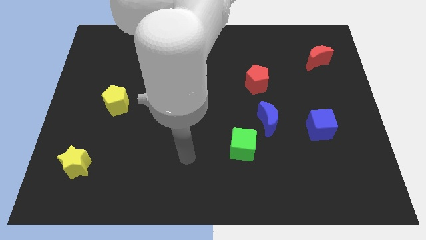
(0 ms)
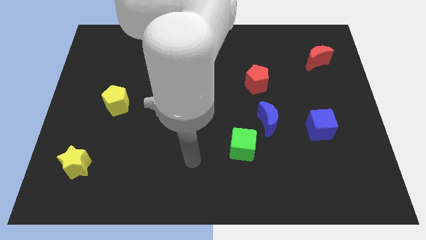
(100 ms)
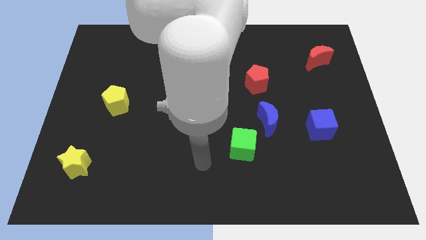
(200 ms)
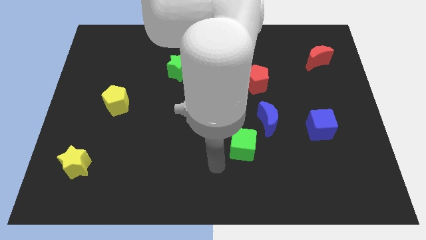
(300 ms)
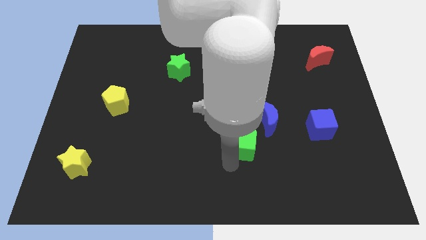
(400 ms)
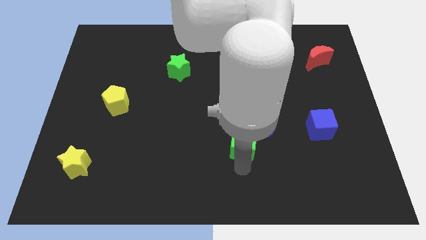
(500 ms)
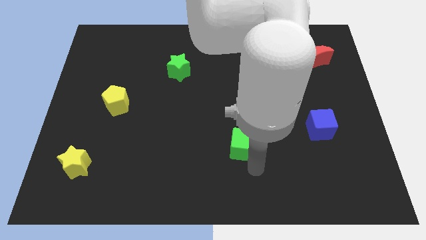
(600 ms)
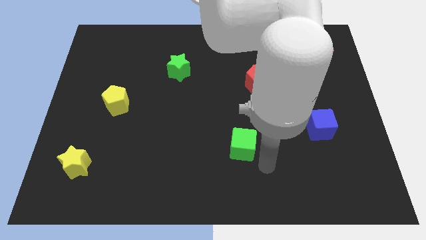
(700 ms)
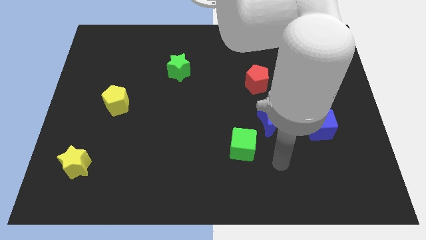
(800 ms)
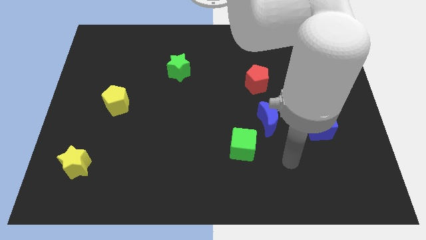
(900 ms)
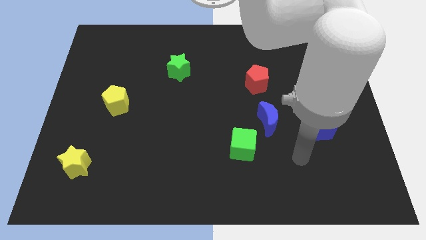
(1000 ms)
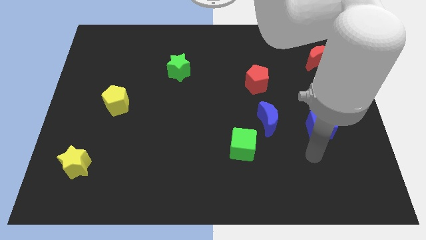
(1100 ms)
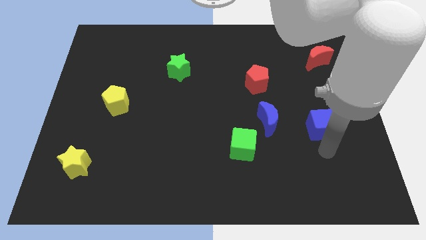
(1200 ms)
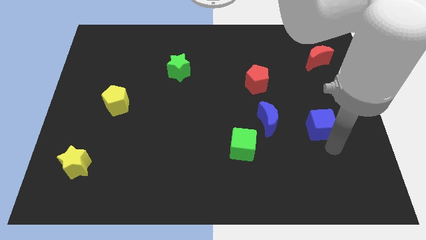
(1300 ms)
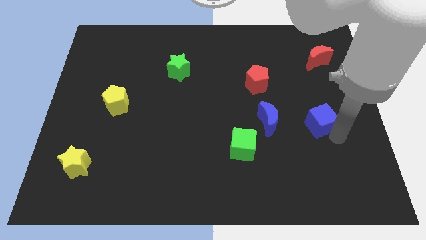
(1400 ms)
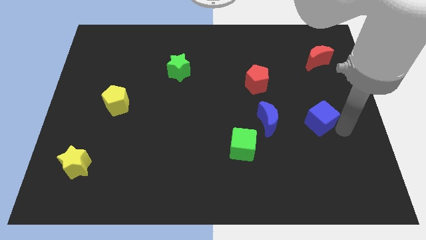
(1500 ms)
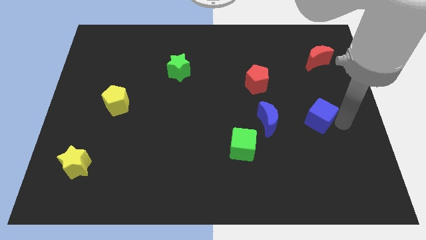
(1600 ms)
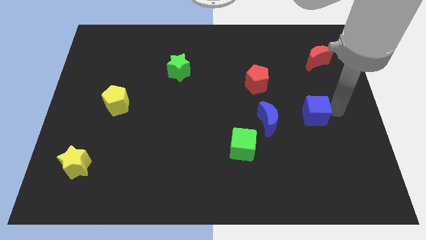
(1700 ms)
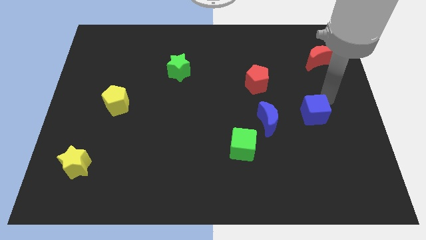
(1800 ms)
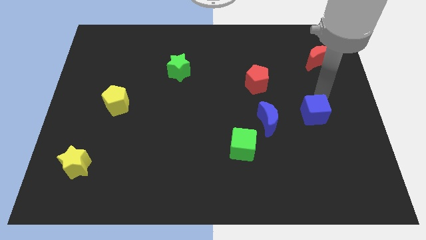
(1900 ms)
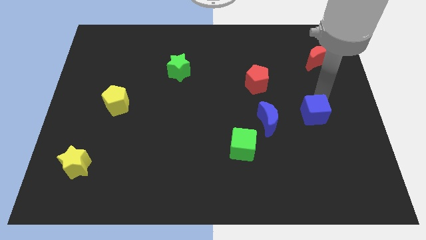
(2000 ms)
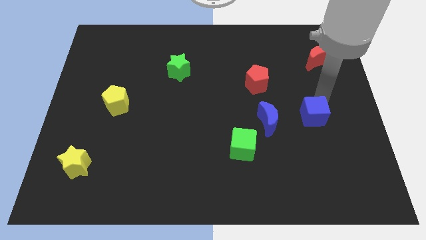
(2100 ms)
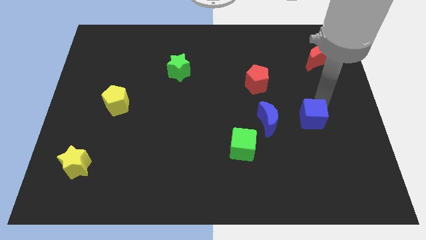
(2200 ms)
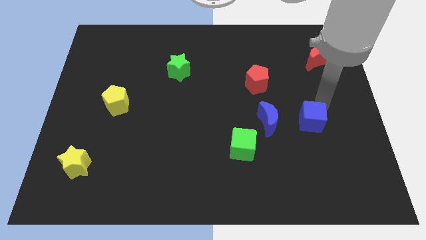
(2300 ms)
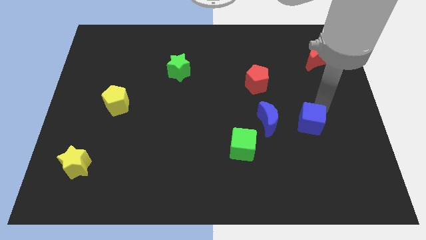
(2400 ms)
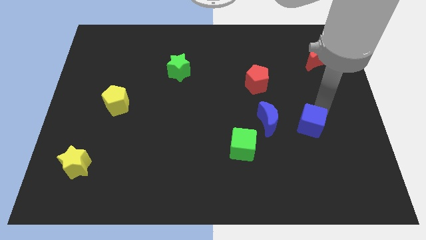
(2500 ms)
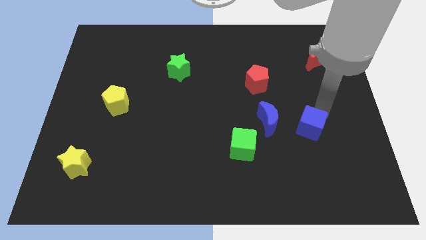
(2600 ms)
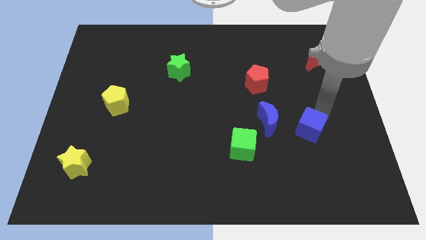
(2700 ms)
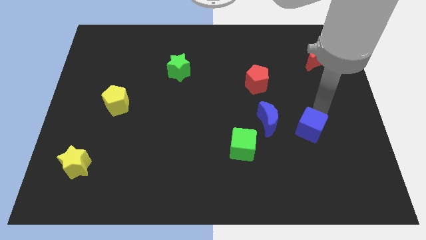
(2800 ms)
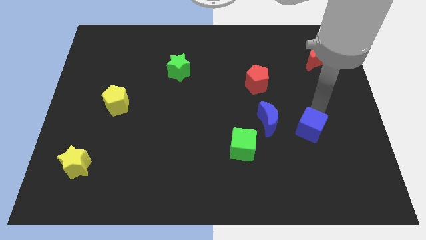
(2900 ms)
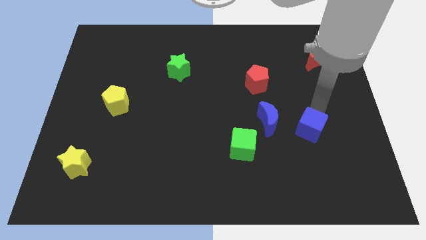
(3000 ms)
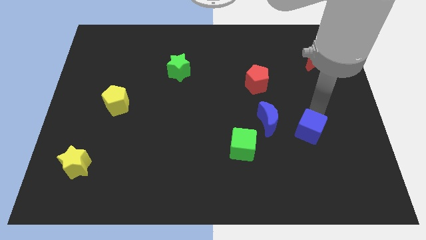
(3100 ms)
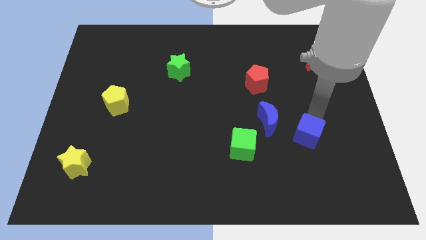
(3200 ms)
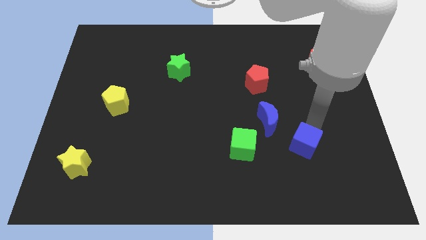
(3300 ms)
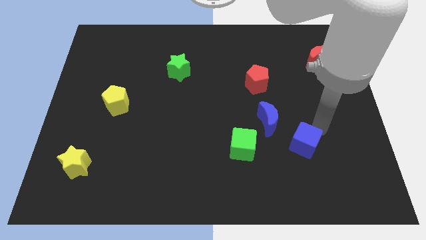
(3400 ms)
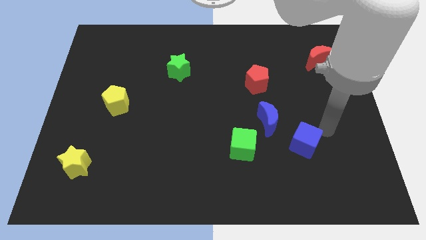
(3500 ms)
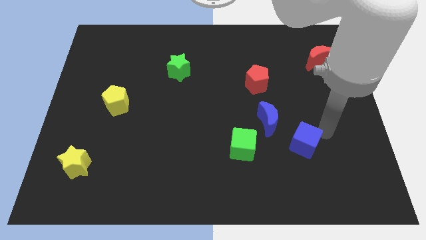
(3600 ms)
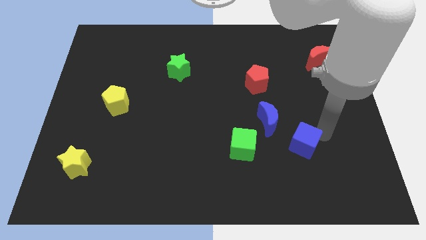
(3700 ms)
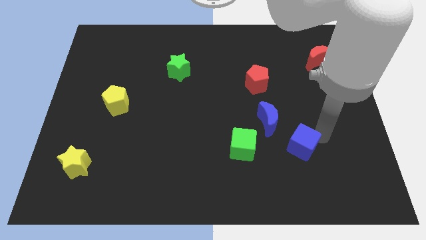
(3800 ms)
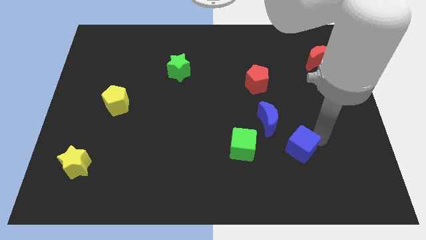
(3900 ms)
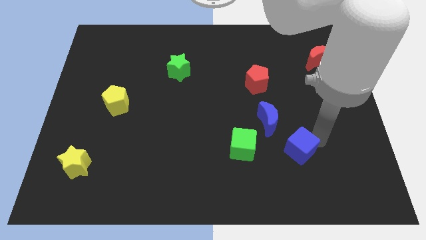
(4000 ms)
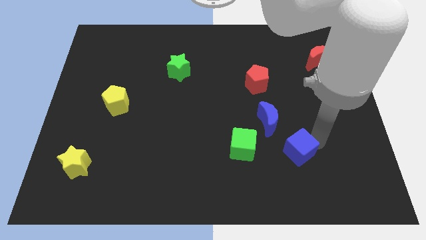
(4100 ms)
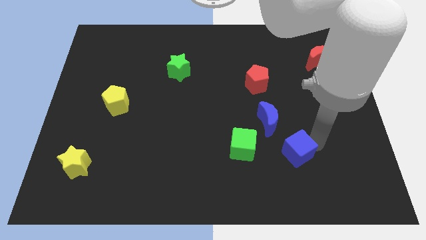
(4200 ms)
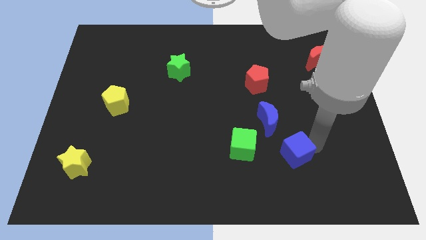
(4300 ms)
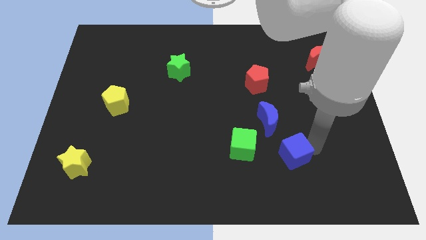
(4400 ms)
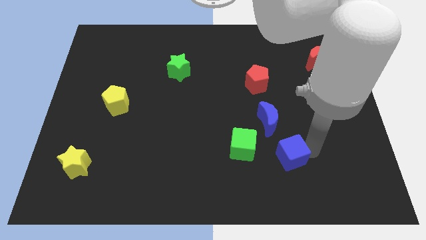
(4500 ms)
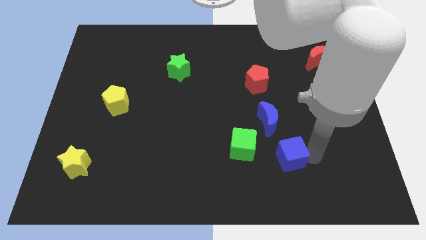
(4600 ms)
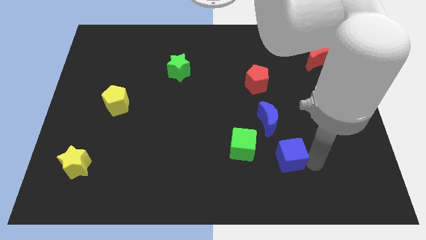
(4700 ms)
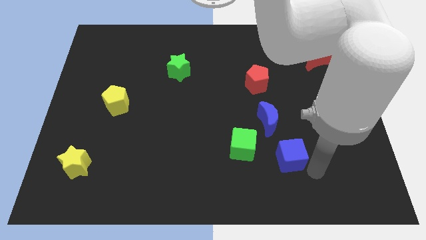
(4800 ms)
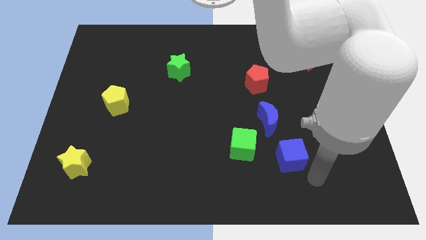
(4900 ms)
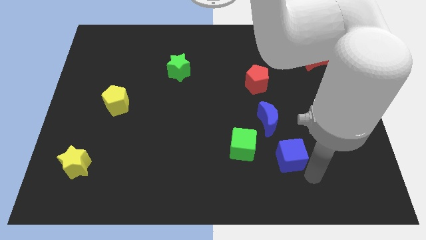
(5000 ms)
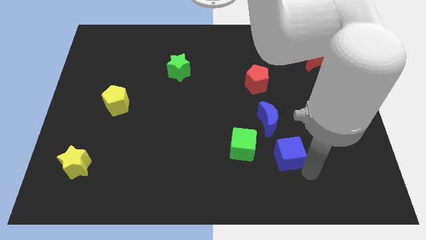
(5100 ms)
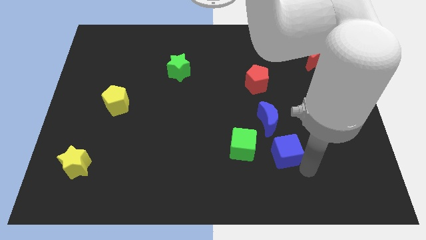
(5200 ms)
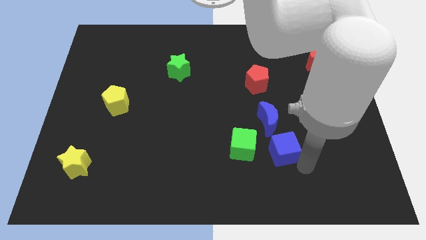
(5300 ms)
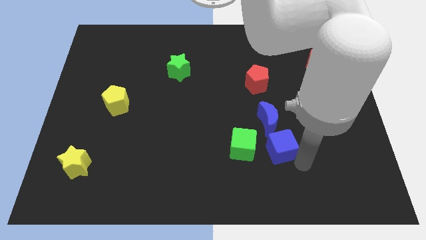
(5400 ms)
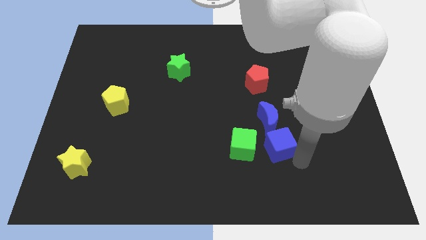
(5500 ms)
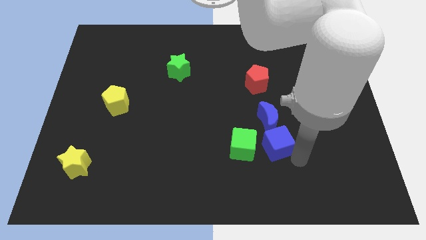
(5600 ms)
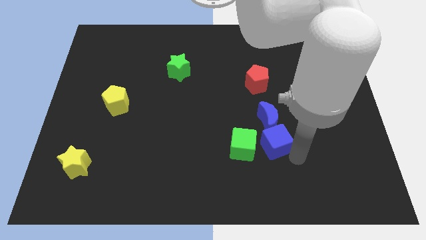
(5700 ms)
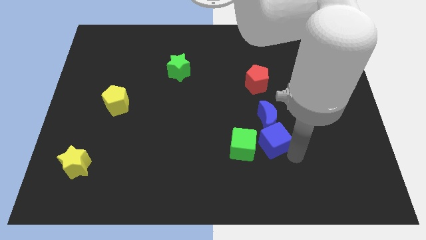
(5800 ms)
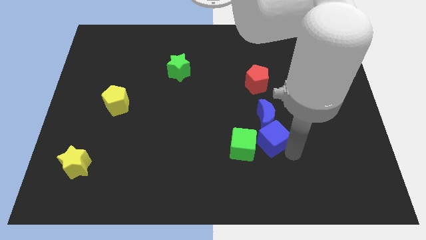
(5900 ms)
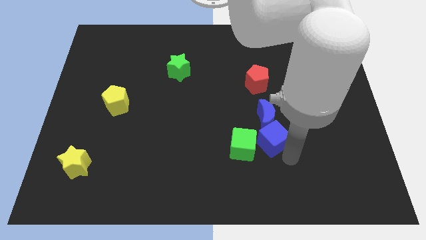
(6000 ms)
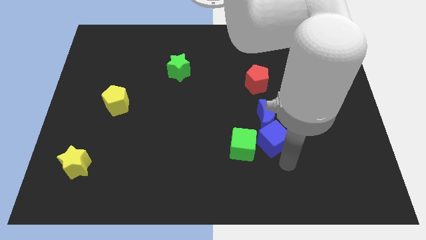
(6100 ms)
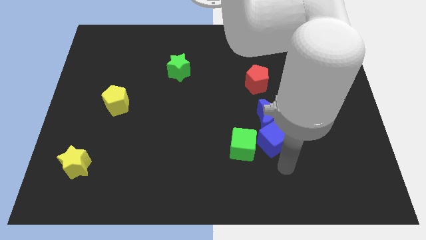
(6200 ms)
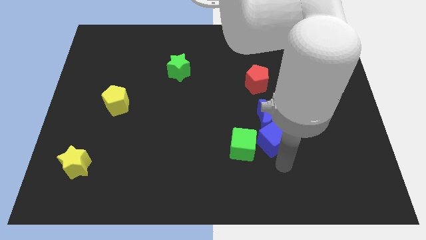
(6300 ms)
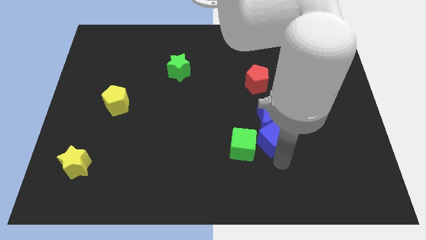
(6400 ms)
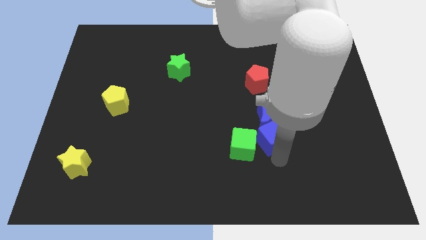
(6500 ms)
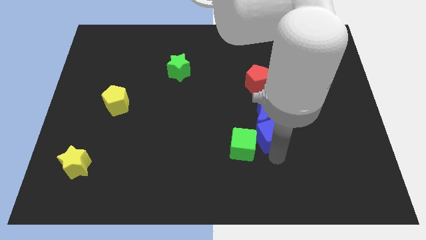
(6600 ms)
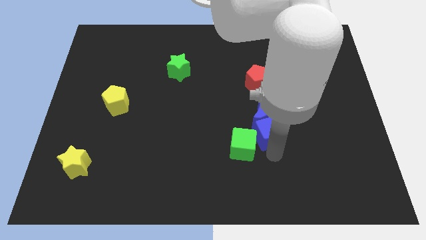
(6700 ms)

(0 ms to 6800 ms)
put the blue cube to the bottom side of the red pentagon
